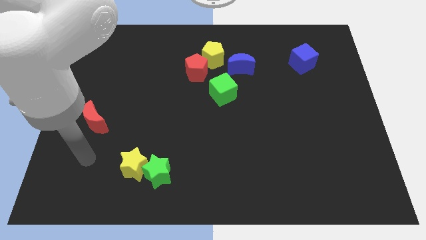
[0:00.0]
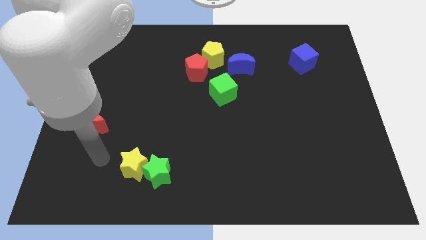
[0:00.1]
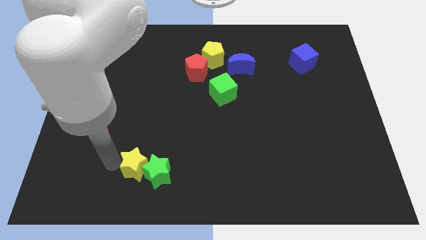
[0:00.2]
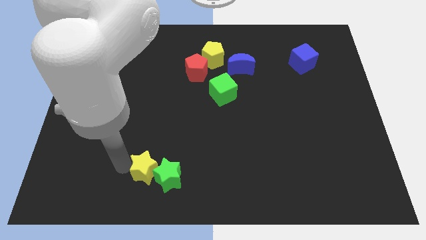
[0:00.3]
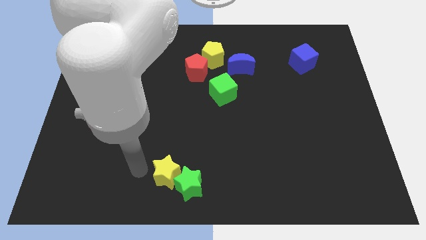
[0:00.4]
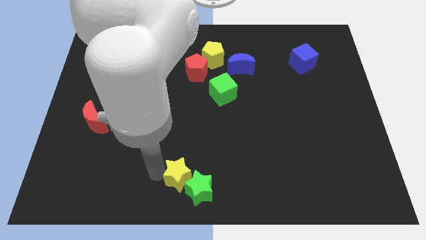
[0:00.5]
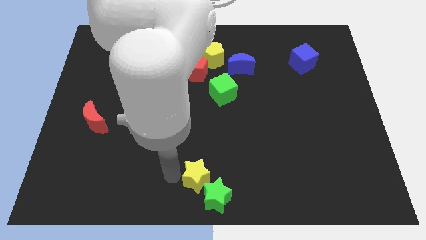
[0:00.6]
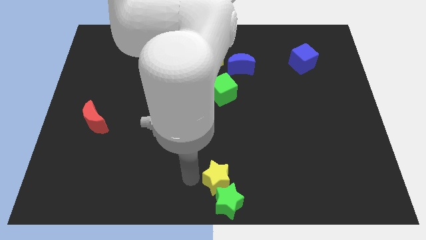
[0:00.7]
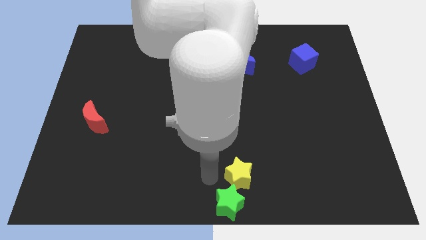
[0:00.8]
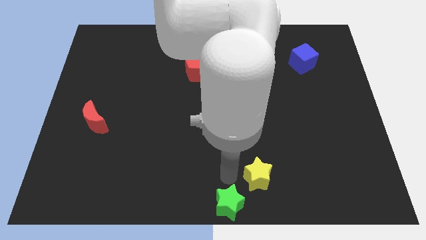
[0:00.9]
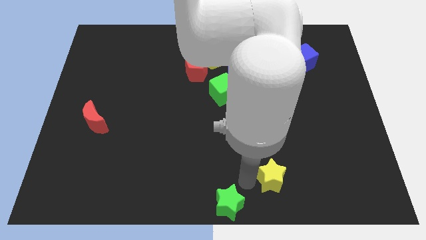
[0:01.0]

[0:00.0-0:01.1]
pull the green star apart from the yellow star

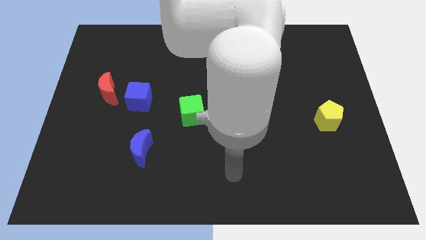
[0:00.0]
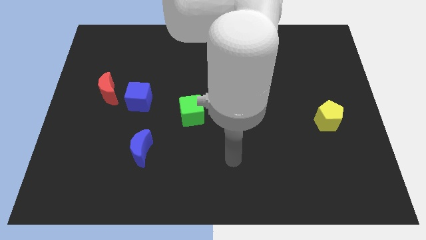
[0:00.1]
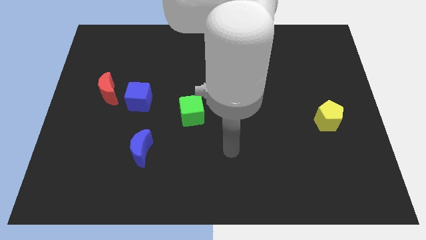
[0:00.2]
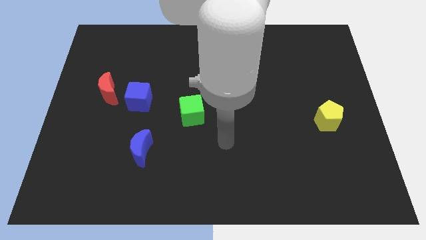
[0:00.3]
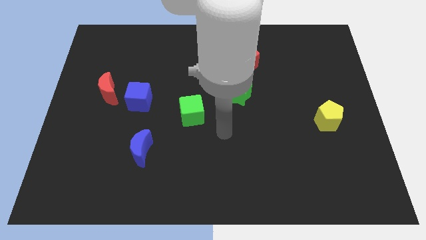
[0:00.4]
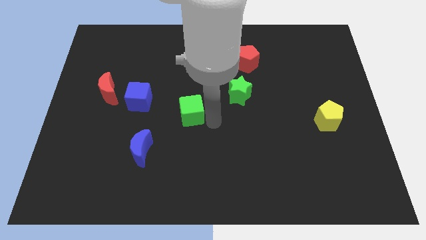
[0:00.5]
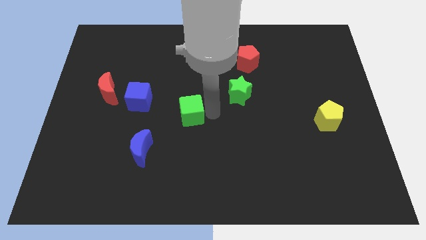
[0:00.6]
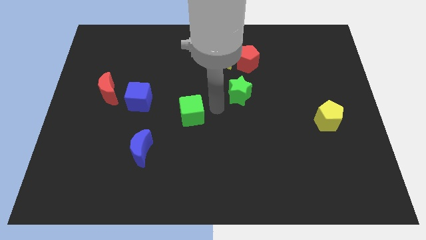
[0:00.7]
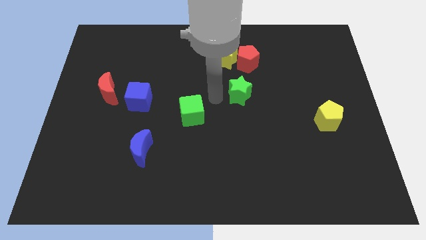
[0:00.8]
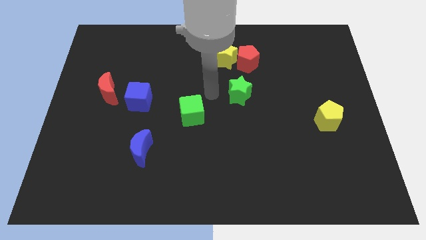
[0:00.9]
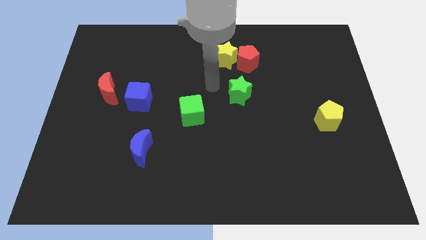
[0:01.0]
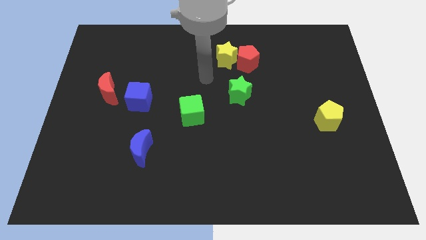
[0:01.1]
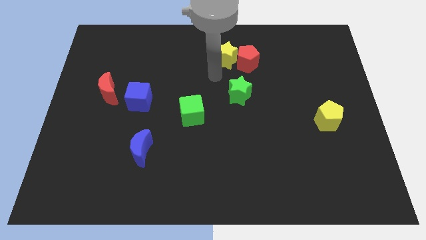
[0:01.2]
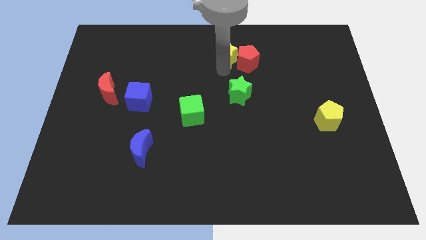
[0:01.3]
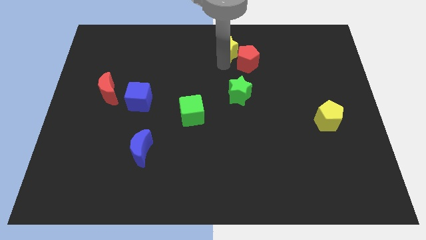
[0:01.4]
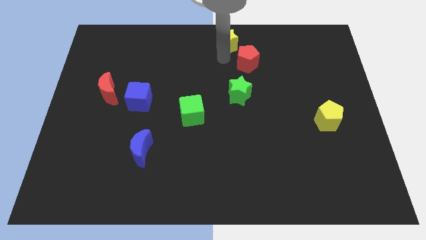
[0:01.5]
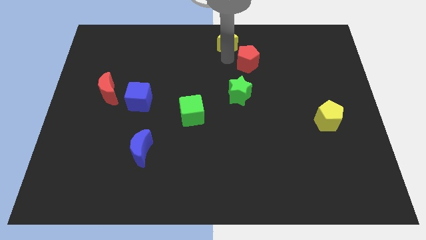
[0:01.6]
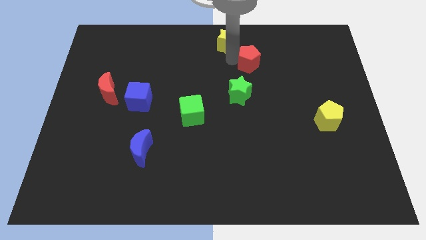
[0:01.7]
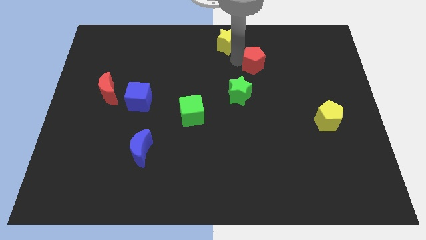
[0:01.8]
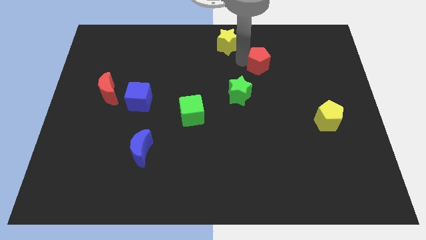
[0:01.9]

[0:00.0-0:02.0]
pull the red pentagon apart from the yellow star

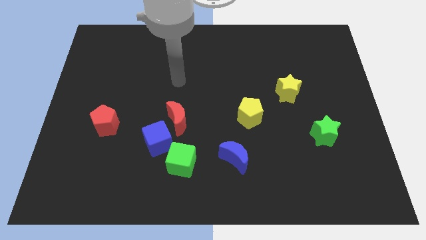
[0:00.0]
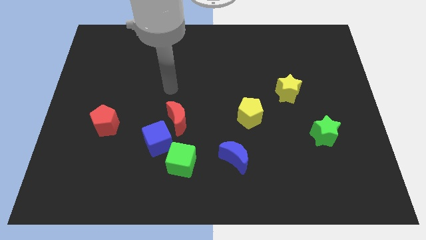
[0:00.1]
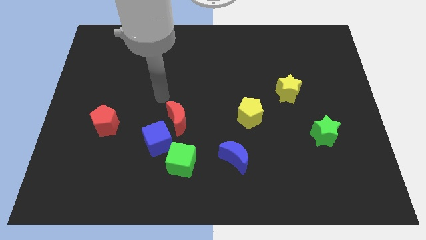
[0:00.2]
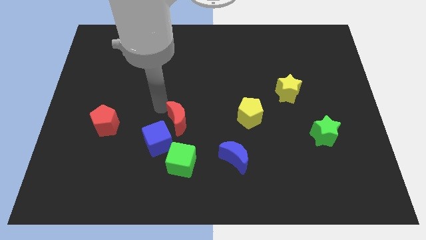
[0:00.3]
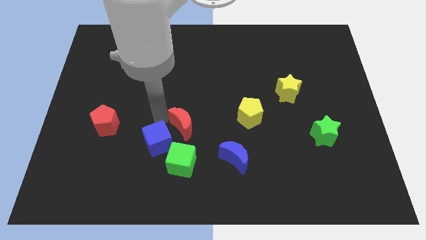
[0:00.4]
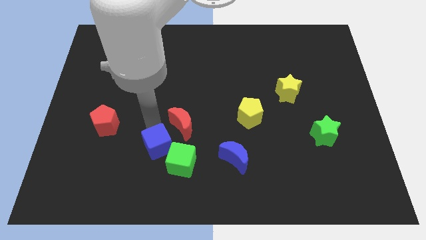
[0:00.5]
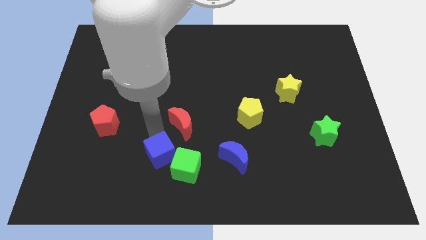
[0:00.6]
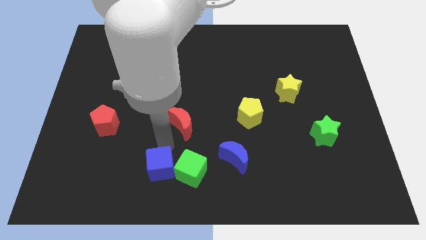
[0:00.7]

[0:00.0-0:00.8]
move the red moon away from the blue cube

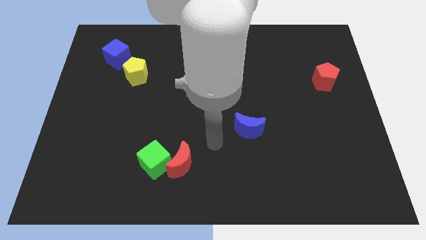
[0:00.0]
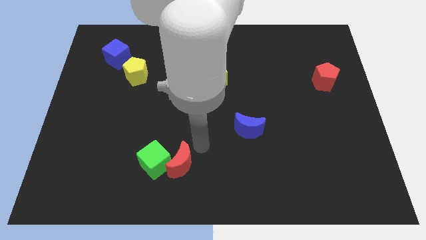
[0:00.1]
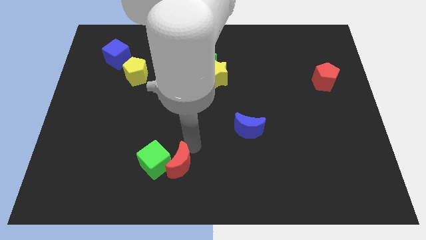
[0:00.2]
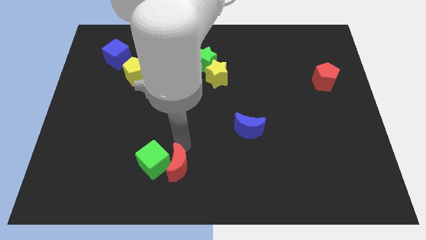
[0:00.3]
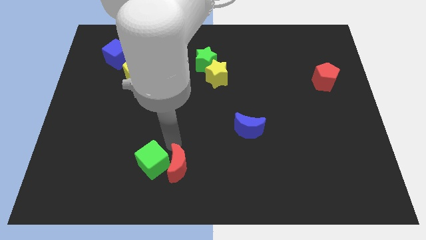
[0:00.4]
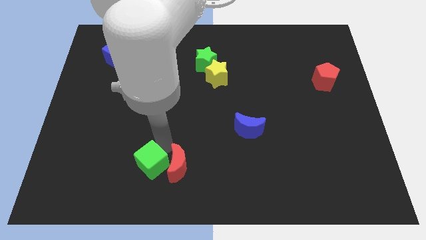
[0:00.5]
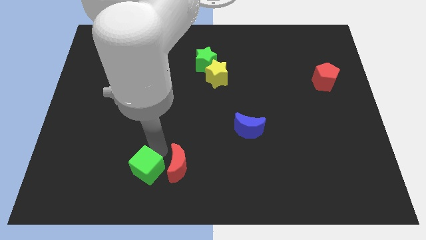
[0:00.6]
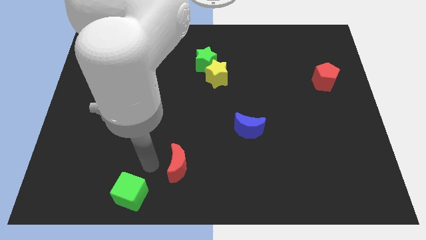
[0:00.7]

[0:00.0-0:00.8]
separate the red moon from the green cube

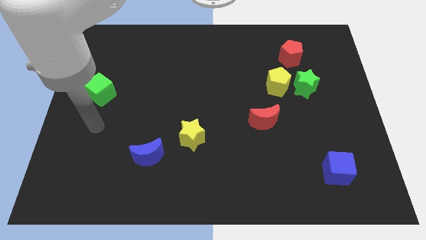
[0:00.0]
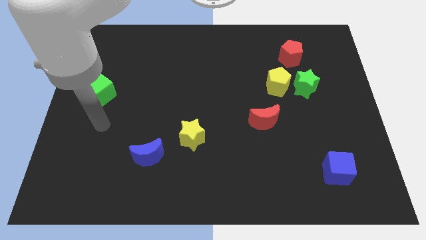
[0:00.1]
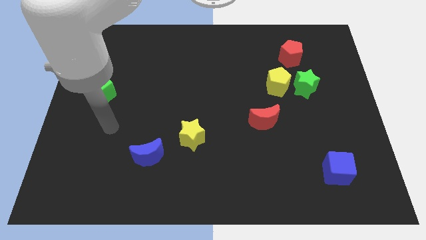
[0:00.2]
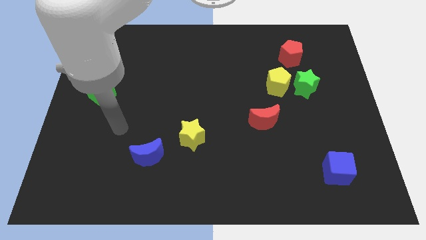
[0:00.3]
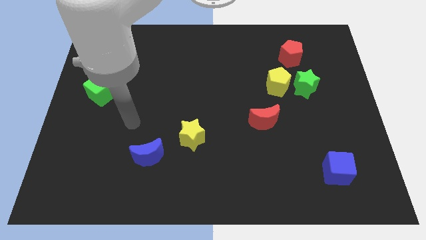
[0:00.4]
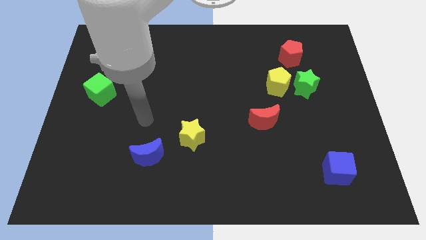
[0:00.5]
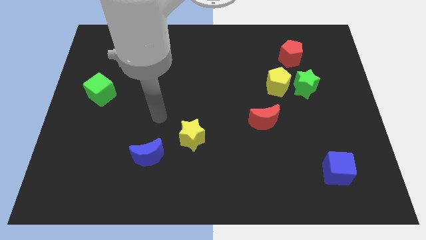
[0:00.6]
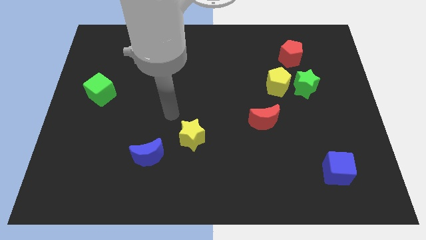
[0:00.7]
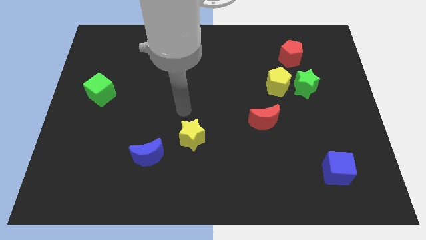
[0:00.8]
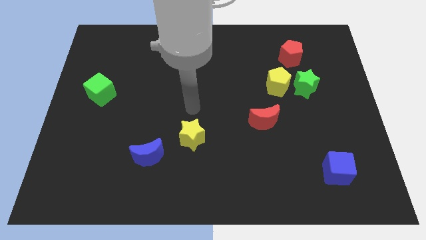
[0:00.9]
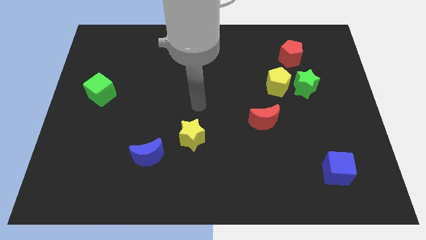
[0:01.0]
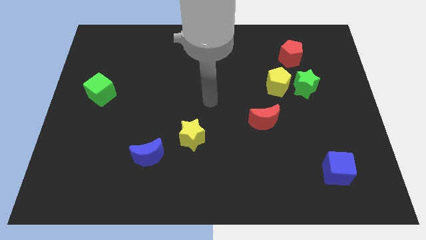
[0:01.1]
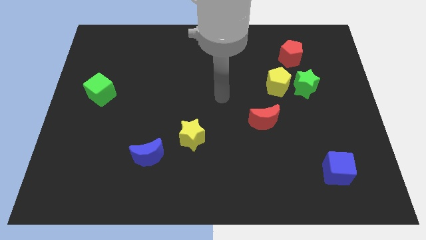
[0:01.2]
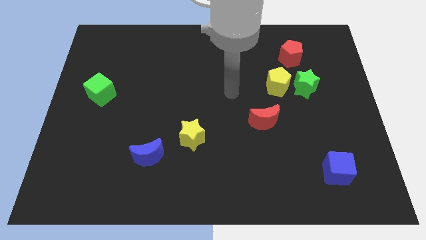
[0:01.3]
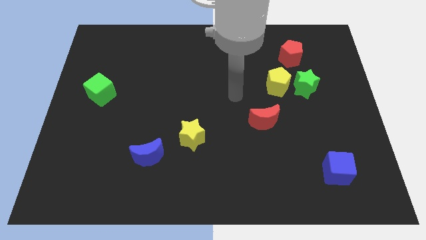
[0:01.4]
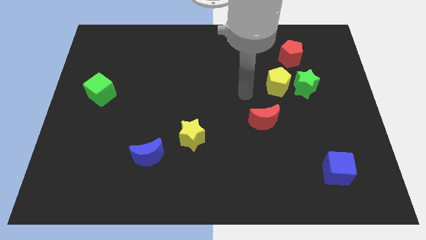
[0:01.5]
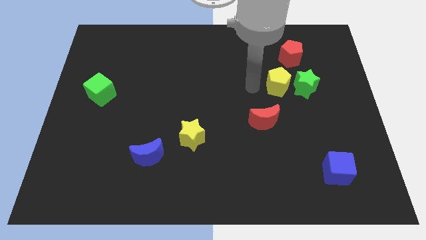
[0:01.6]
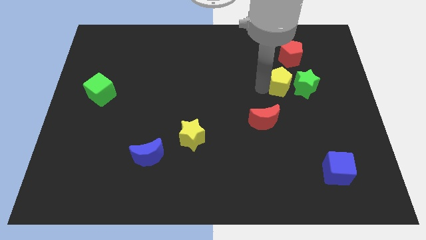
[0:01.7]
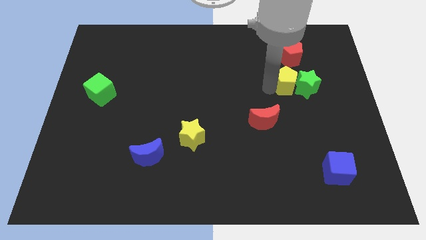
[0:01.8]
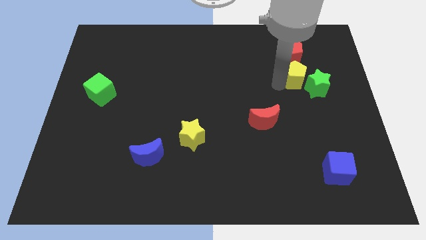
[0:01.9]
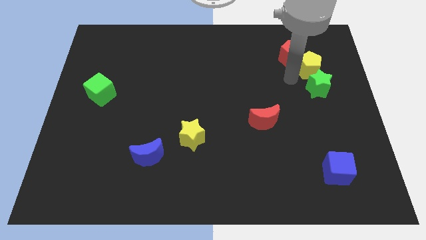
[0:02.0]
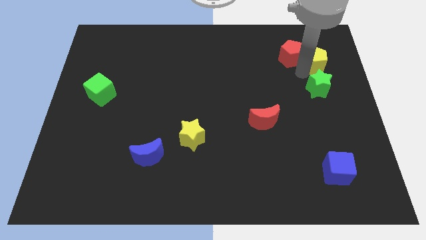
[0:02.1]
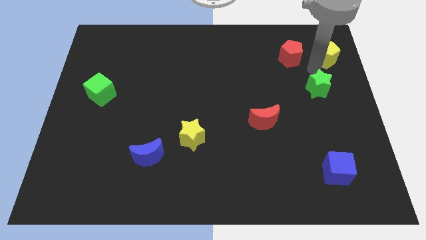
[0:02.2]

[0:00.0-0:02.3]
move the green star away from the yellow pentagon

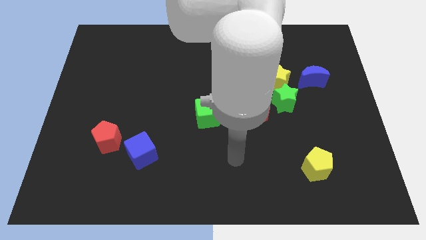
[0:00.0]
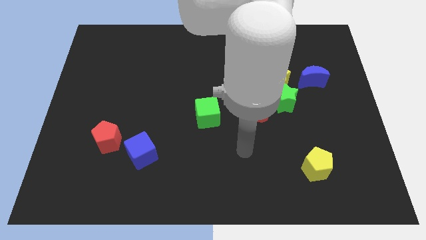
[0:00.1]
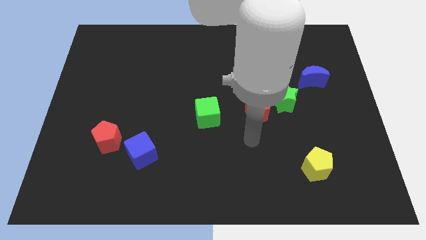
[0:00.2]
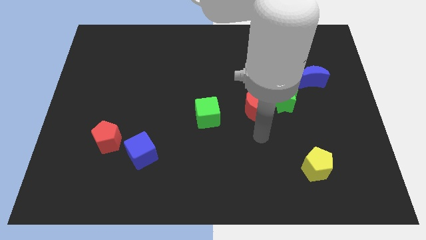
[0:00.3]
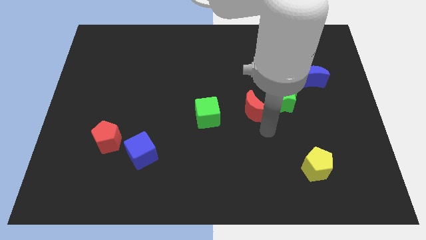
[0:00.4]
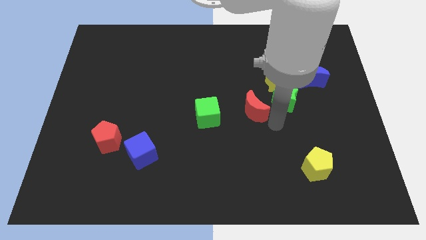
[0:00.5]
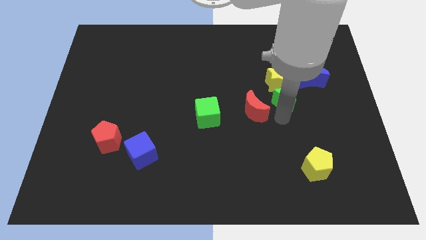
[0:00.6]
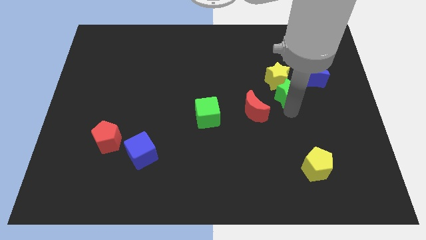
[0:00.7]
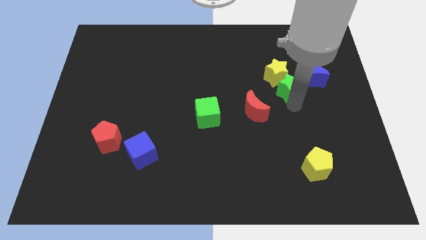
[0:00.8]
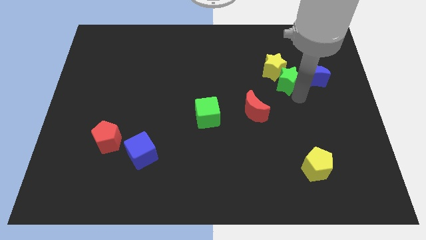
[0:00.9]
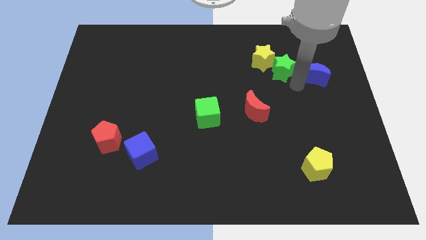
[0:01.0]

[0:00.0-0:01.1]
pull the yellow star apart from the green star and blue moon

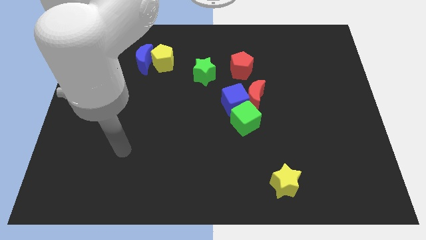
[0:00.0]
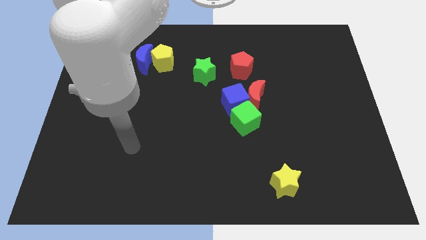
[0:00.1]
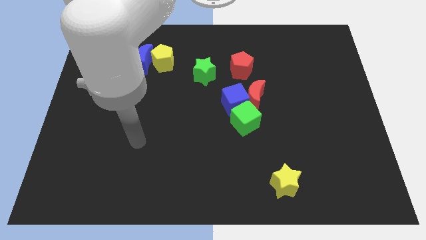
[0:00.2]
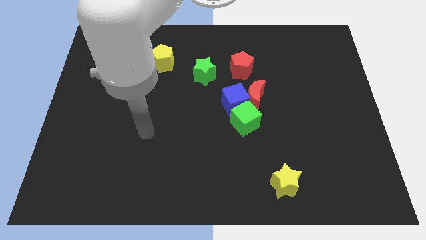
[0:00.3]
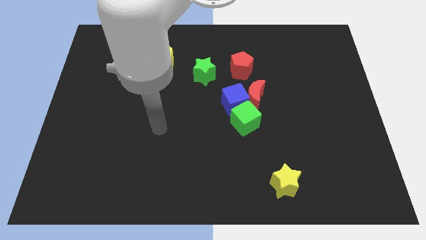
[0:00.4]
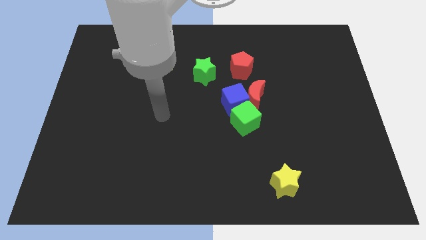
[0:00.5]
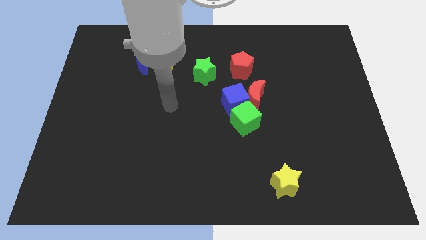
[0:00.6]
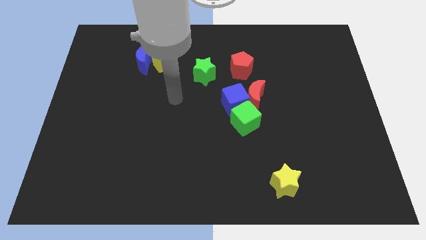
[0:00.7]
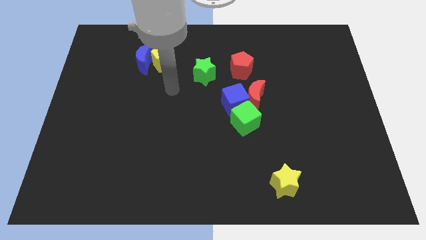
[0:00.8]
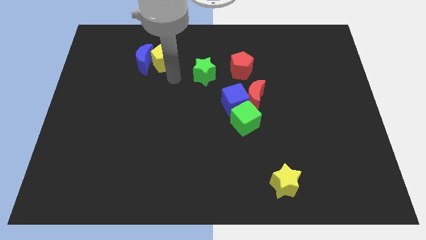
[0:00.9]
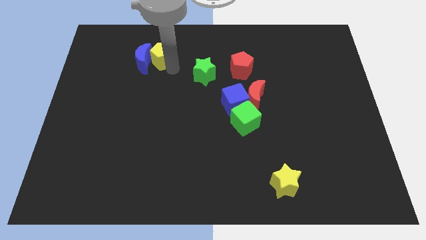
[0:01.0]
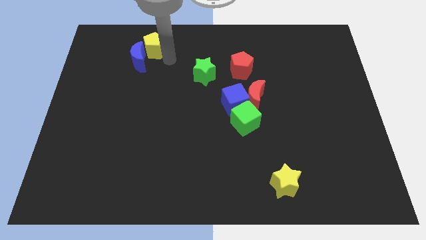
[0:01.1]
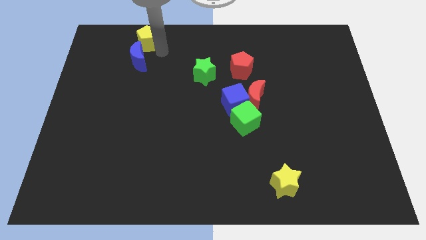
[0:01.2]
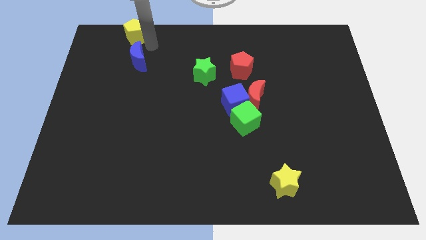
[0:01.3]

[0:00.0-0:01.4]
pull the blue moon apart from the yellow pentagon
